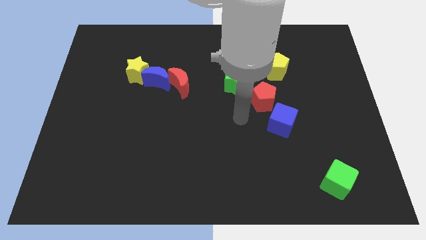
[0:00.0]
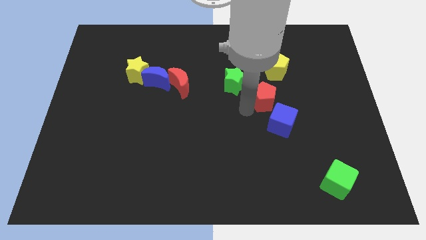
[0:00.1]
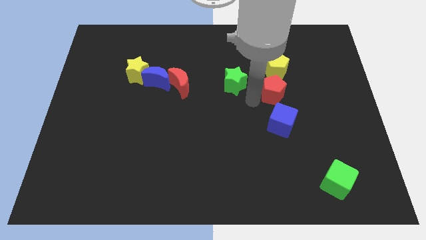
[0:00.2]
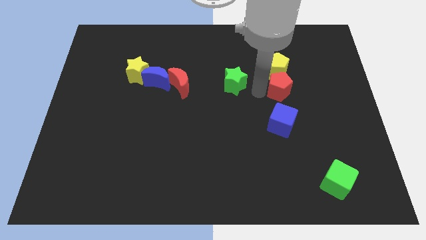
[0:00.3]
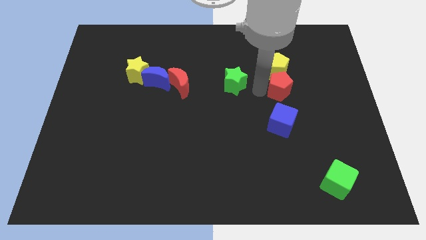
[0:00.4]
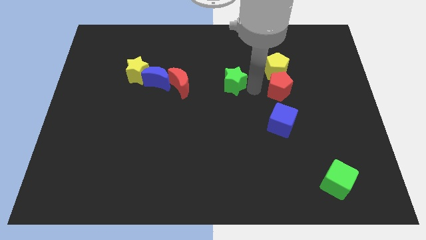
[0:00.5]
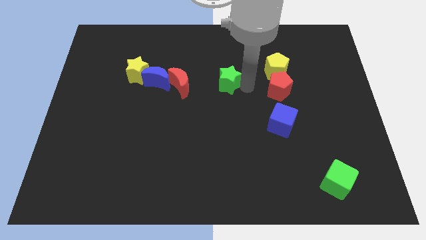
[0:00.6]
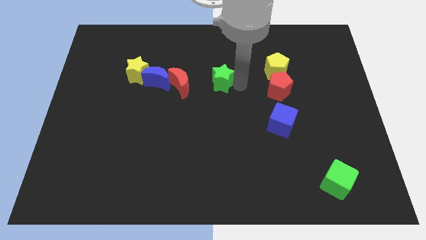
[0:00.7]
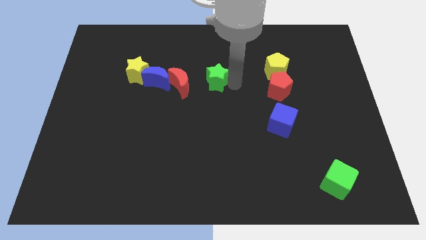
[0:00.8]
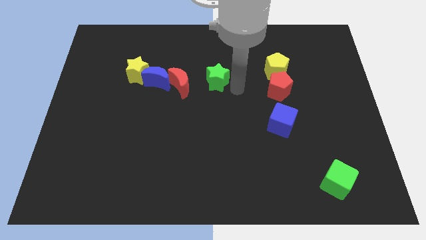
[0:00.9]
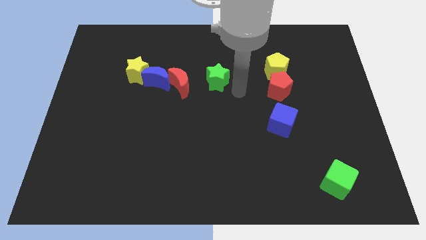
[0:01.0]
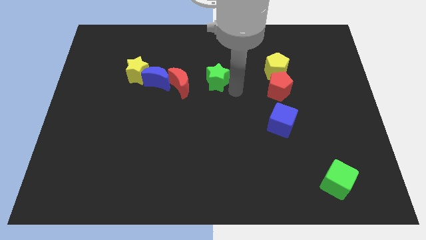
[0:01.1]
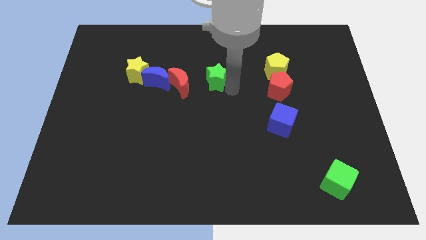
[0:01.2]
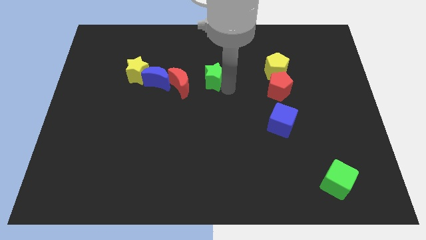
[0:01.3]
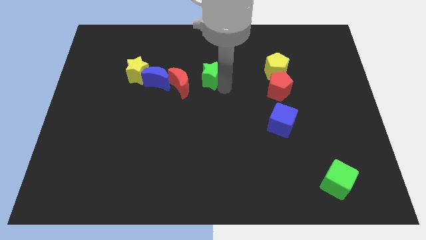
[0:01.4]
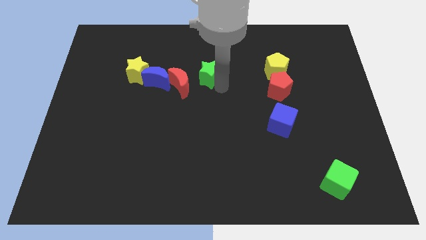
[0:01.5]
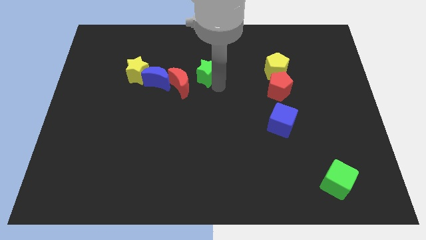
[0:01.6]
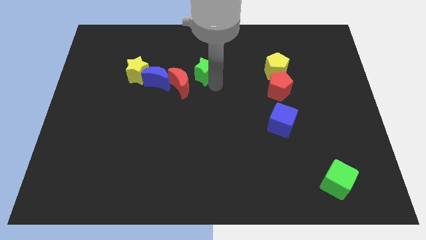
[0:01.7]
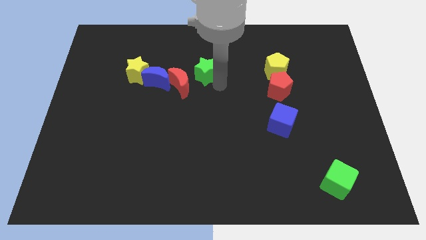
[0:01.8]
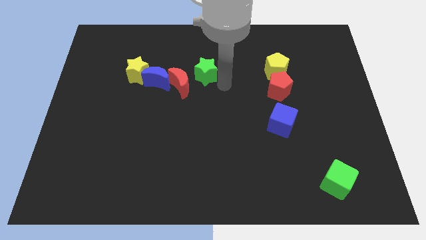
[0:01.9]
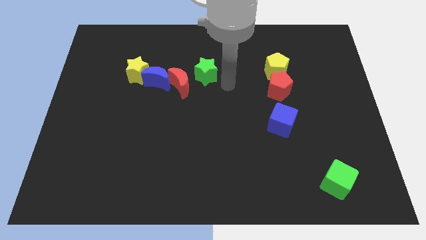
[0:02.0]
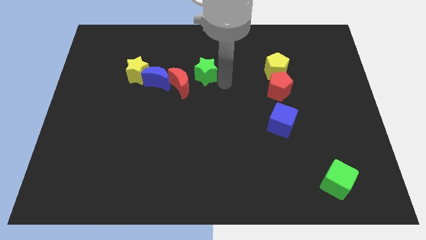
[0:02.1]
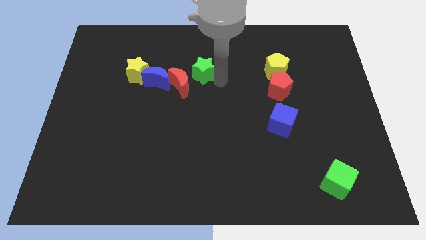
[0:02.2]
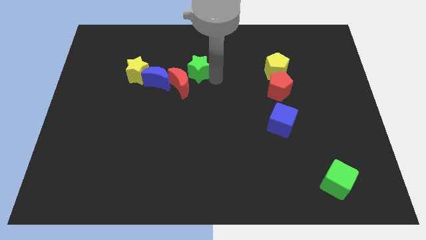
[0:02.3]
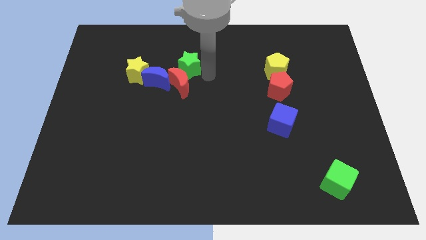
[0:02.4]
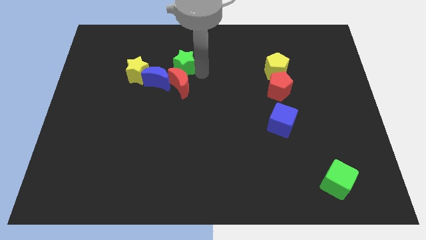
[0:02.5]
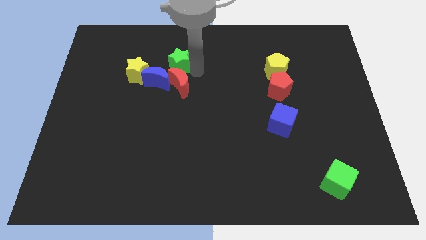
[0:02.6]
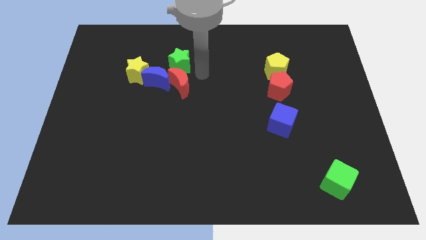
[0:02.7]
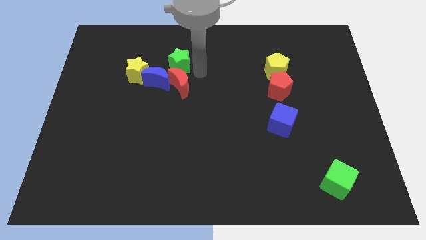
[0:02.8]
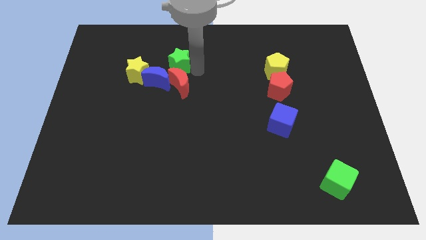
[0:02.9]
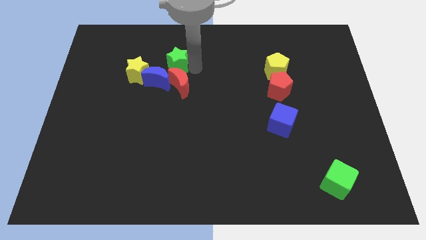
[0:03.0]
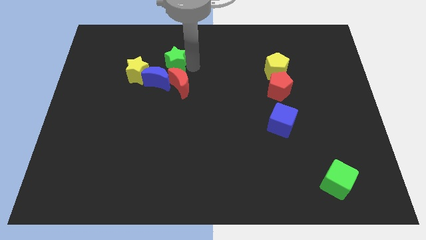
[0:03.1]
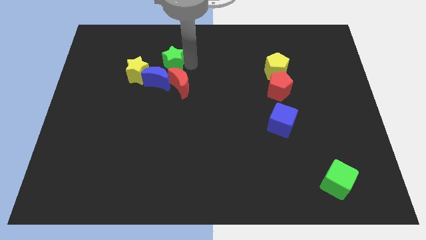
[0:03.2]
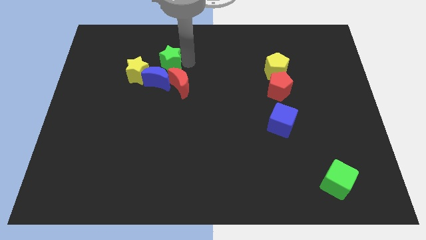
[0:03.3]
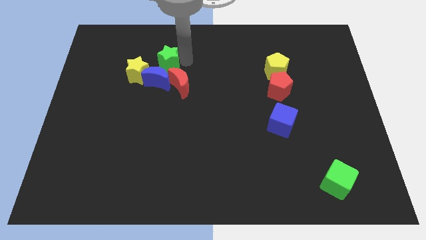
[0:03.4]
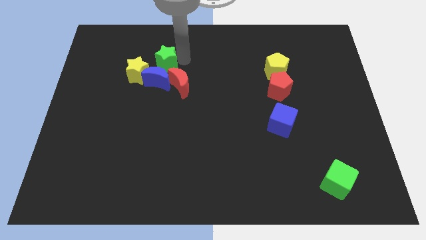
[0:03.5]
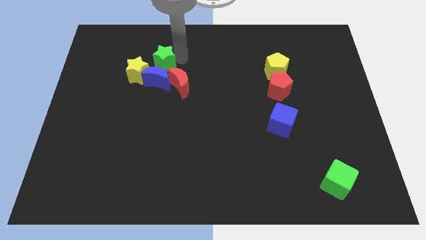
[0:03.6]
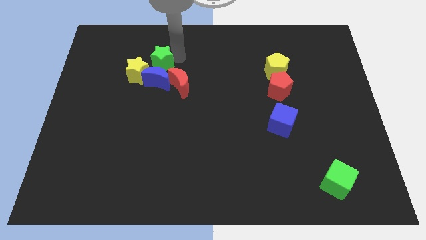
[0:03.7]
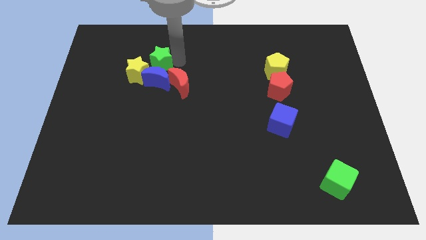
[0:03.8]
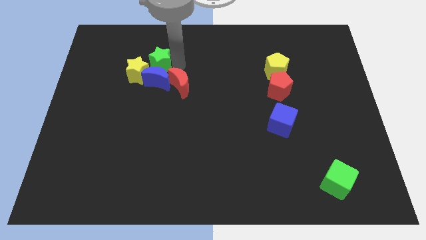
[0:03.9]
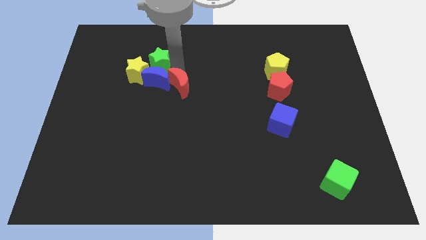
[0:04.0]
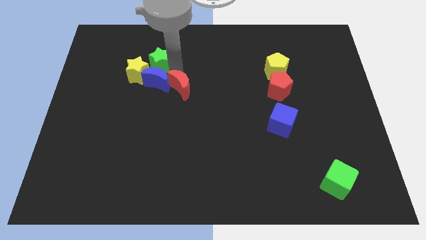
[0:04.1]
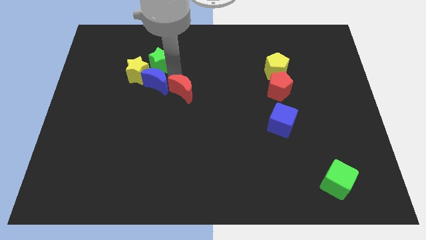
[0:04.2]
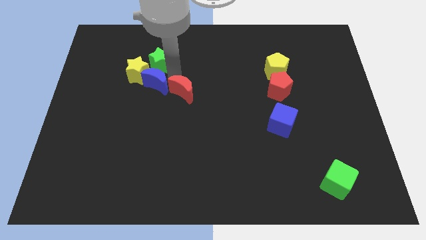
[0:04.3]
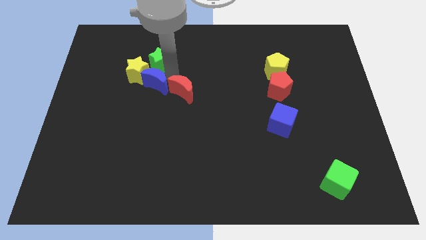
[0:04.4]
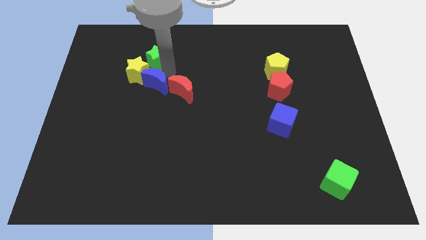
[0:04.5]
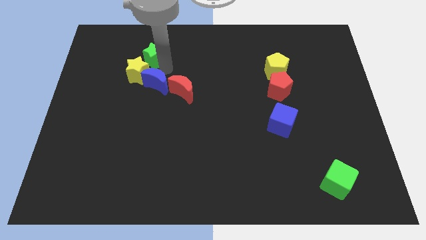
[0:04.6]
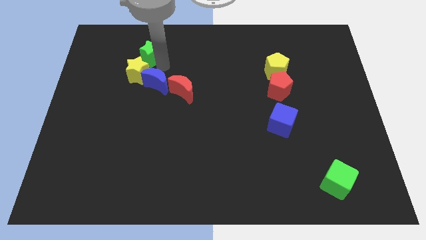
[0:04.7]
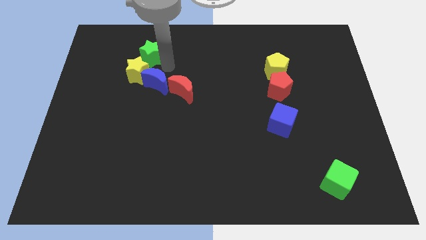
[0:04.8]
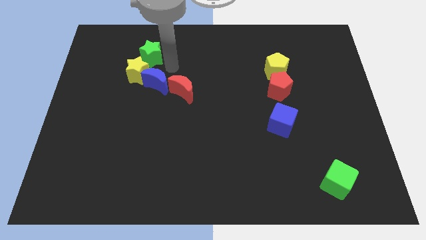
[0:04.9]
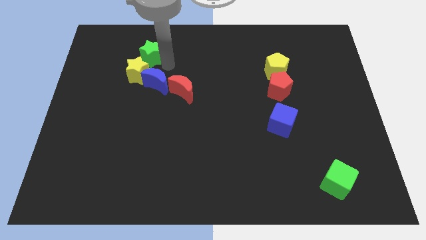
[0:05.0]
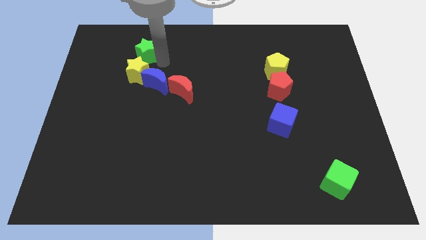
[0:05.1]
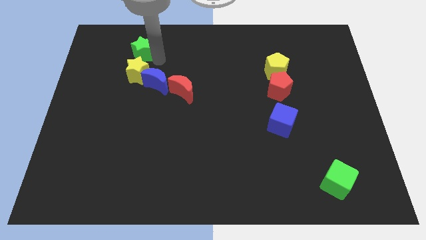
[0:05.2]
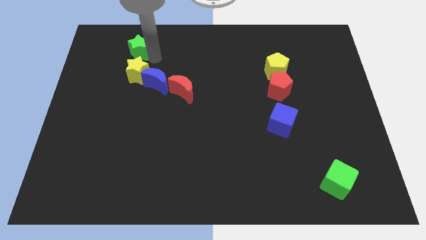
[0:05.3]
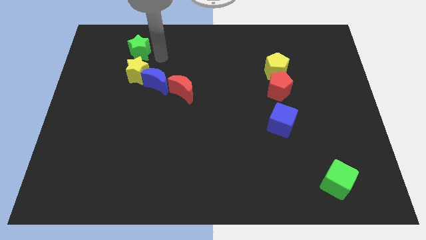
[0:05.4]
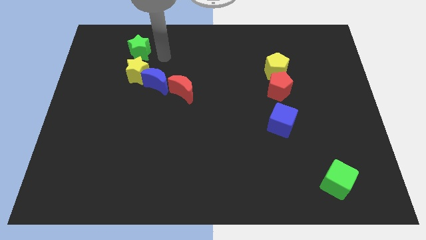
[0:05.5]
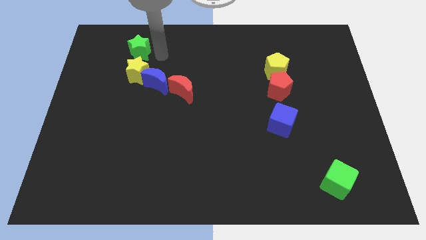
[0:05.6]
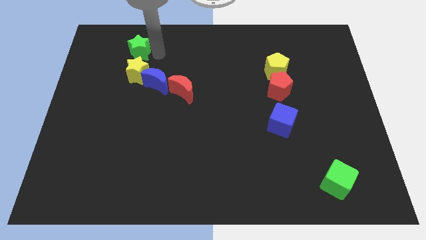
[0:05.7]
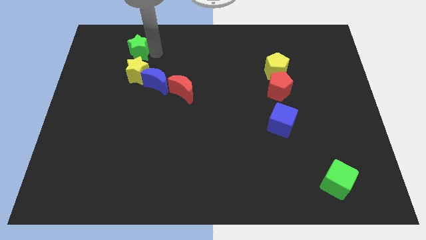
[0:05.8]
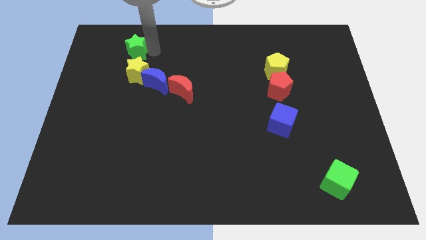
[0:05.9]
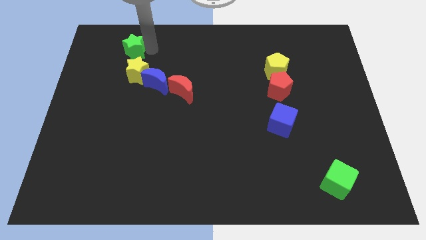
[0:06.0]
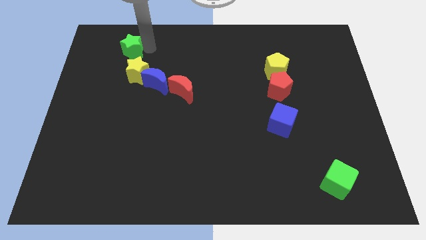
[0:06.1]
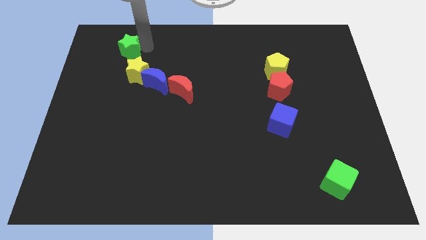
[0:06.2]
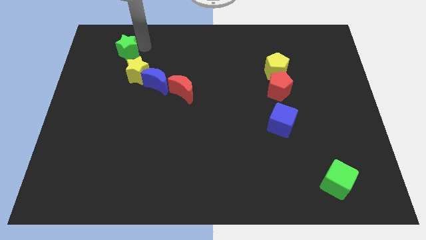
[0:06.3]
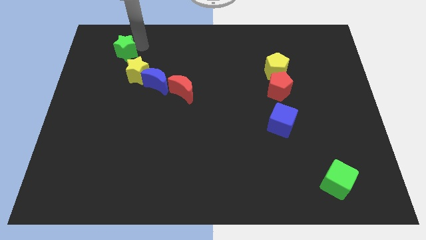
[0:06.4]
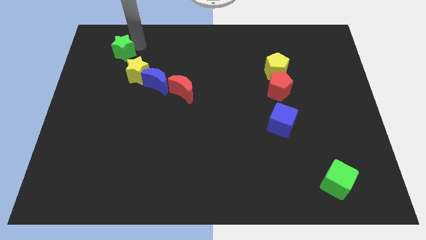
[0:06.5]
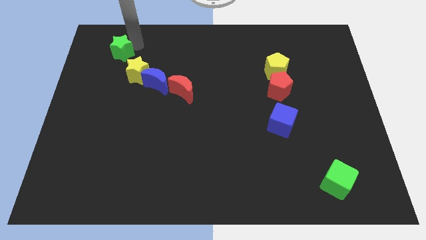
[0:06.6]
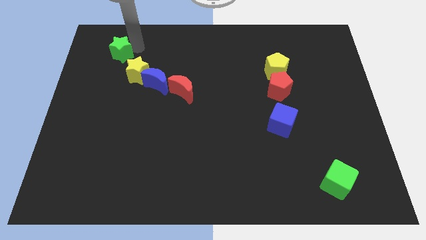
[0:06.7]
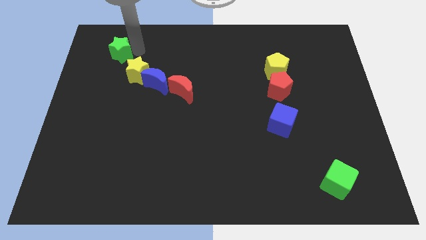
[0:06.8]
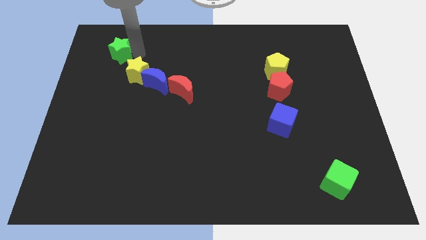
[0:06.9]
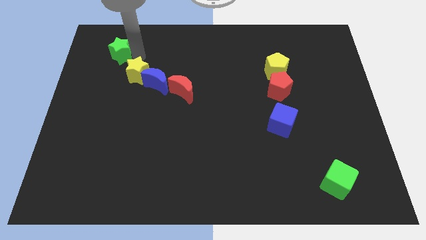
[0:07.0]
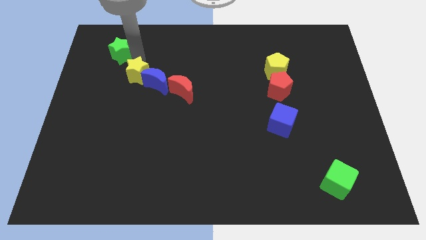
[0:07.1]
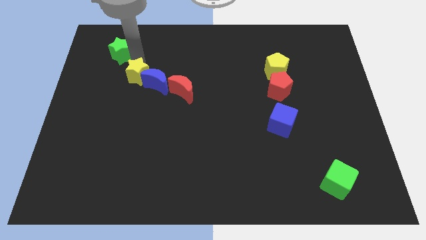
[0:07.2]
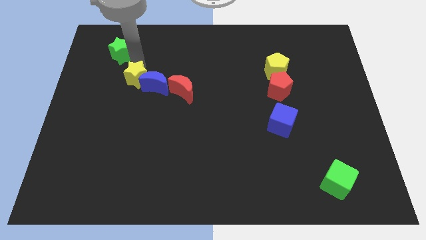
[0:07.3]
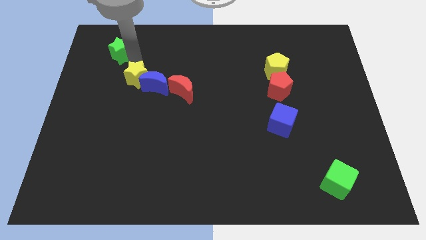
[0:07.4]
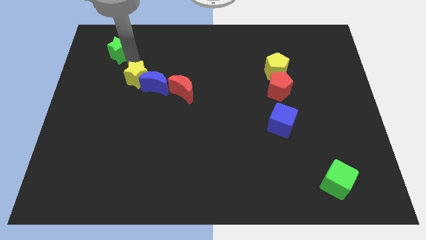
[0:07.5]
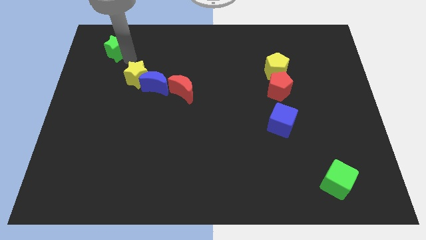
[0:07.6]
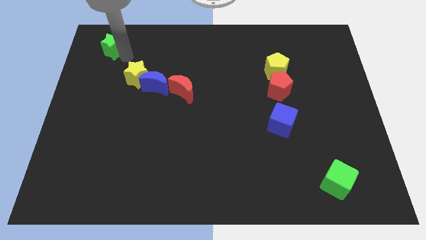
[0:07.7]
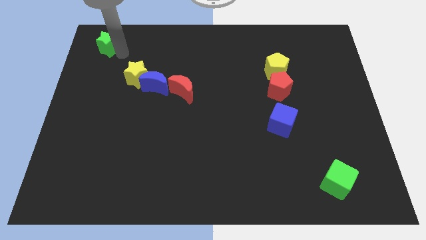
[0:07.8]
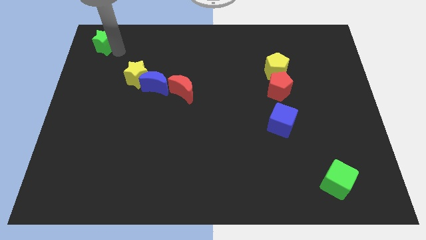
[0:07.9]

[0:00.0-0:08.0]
slide the green star to the top left of the board

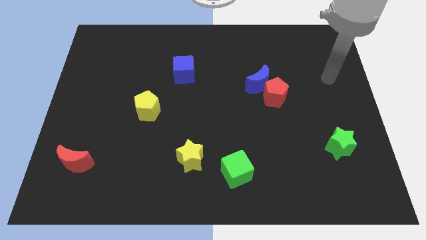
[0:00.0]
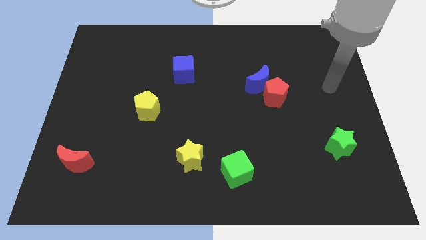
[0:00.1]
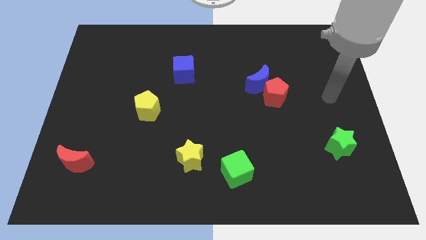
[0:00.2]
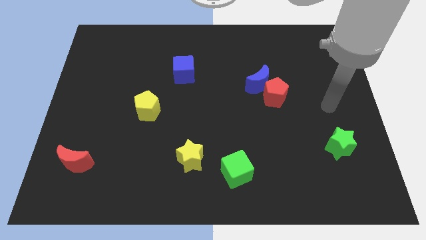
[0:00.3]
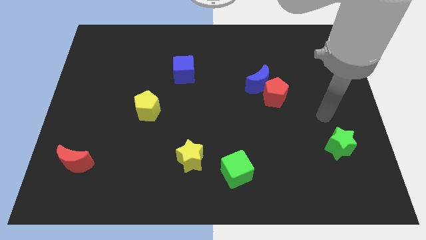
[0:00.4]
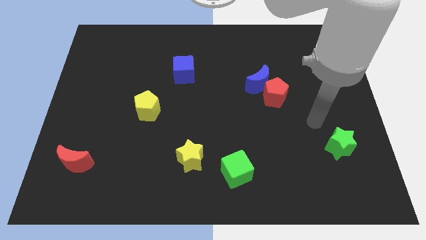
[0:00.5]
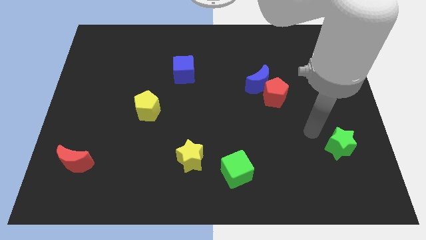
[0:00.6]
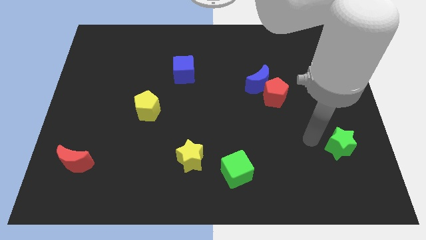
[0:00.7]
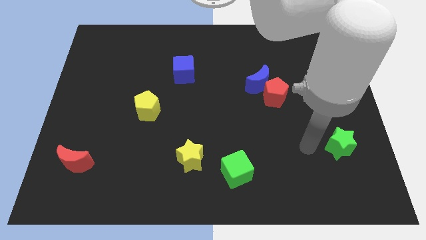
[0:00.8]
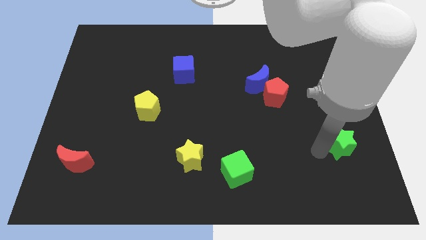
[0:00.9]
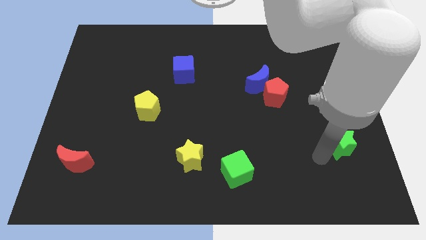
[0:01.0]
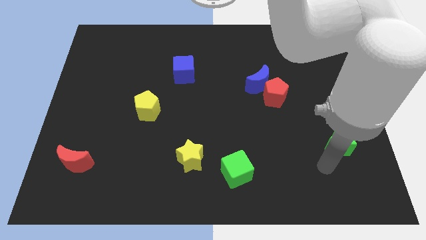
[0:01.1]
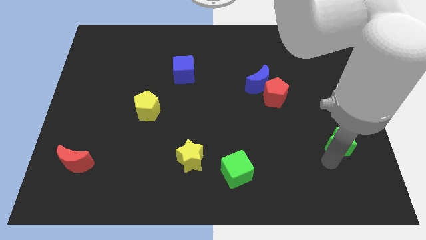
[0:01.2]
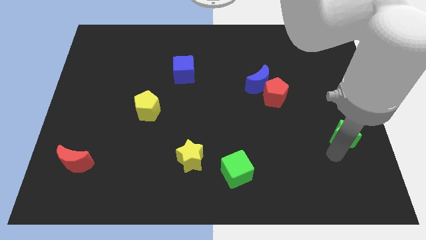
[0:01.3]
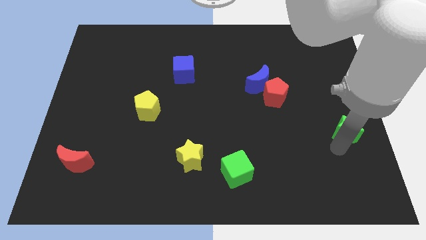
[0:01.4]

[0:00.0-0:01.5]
push the green star to the center right
